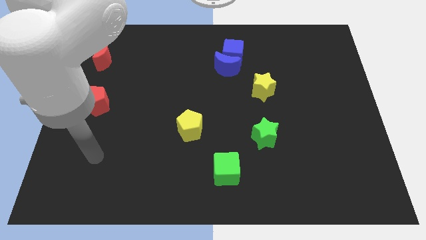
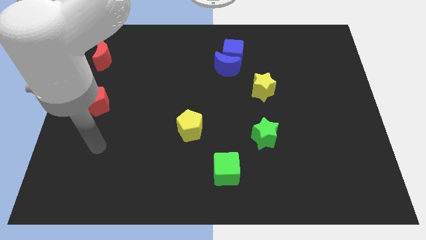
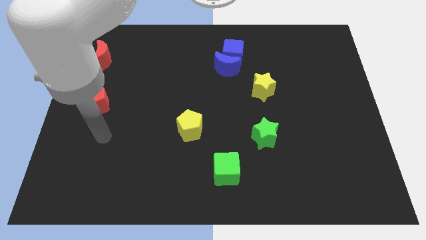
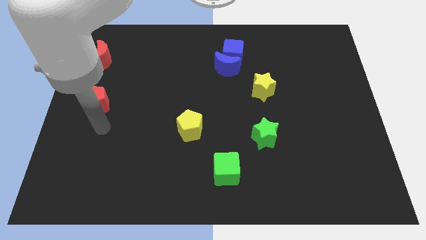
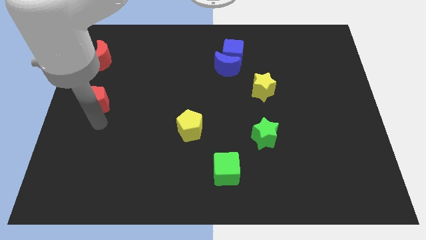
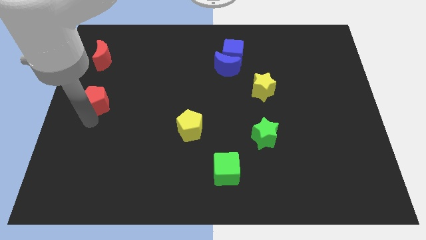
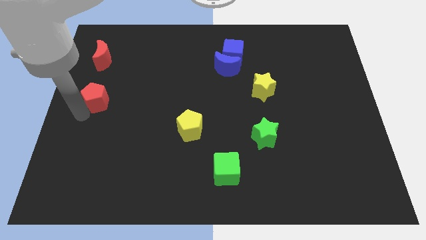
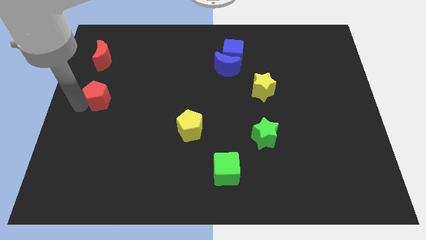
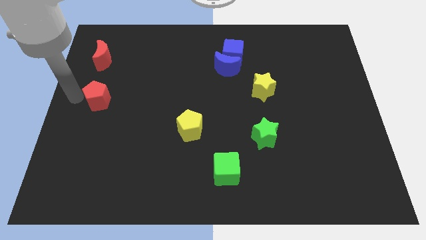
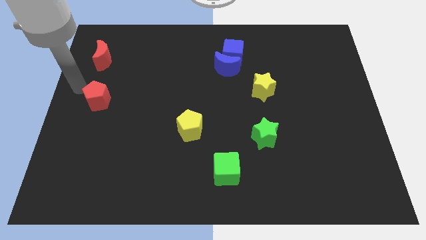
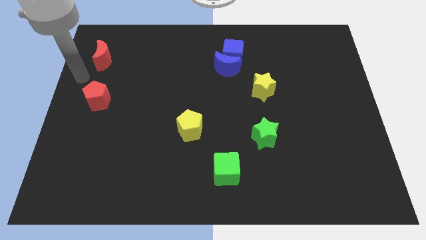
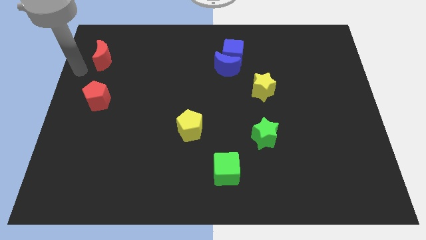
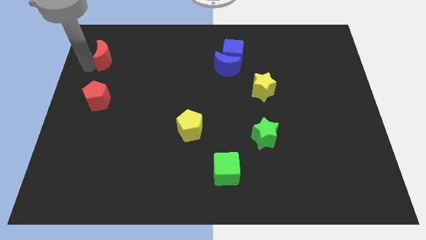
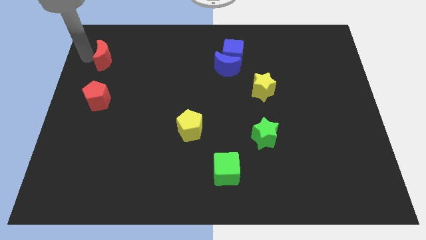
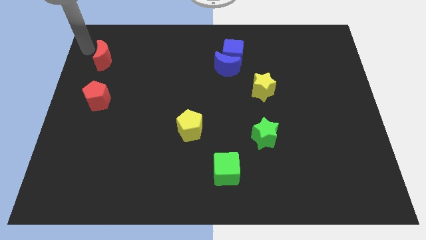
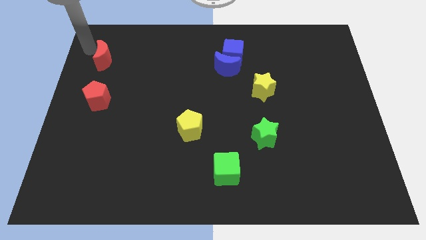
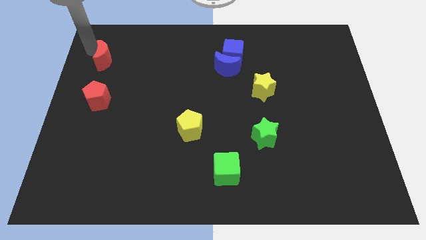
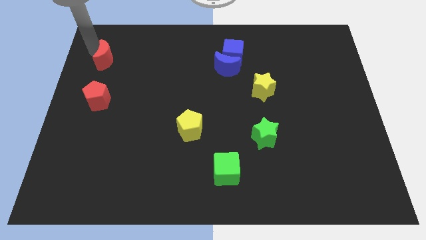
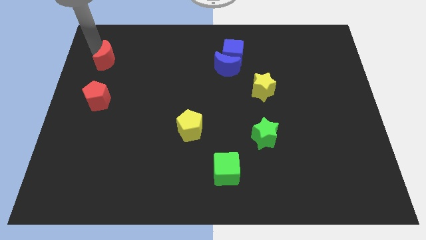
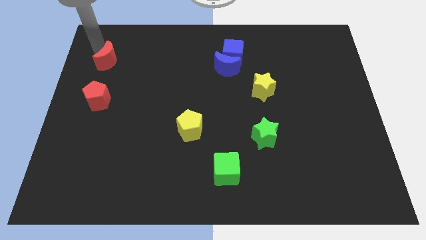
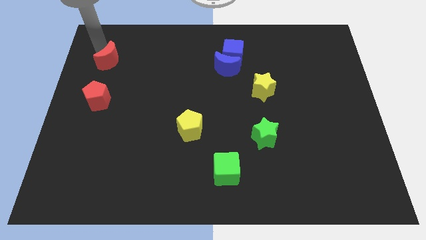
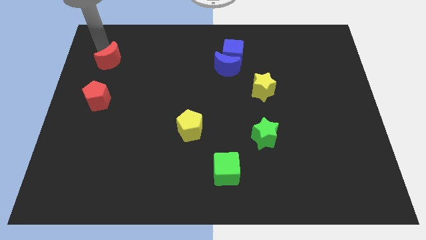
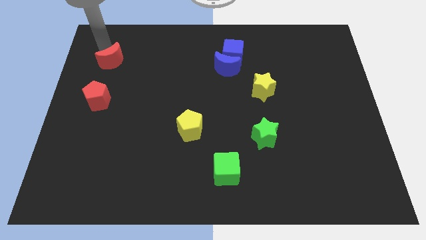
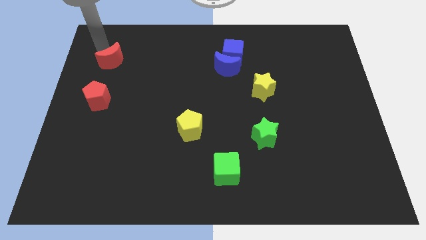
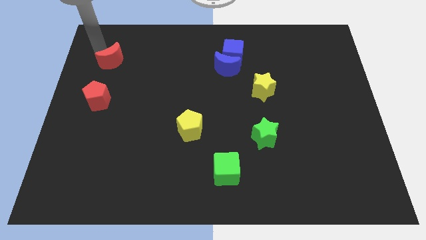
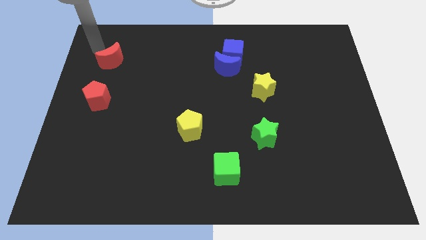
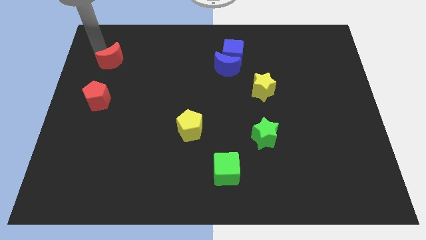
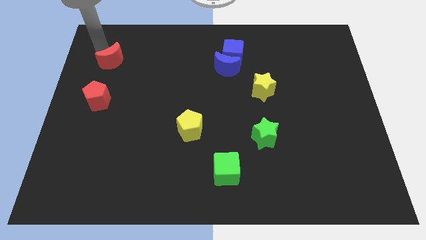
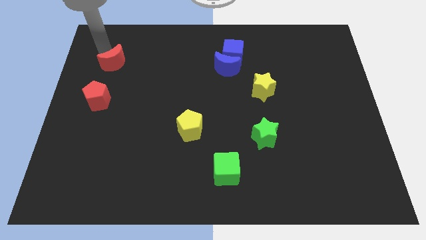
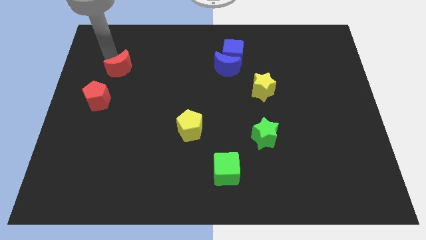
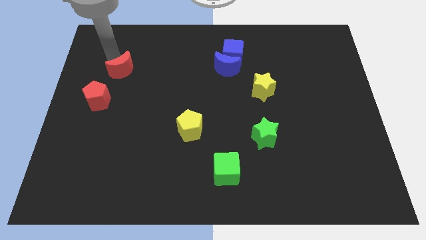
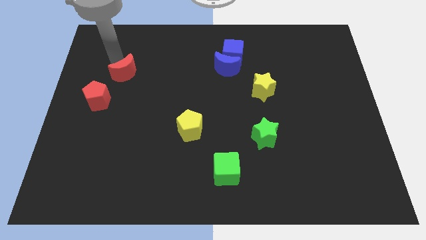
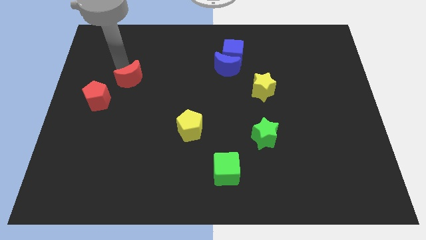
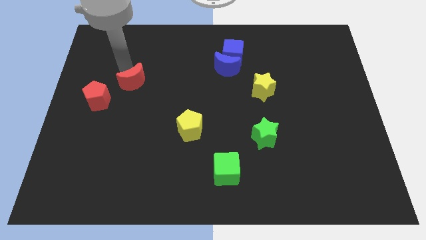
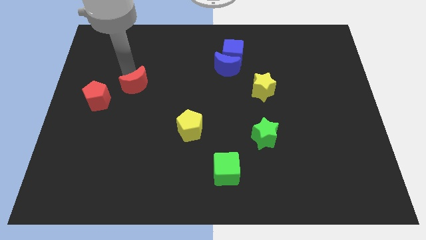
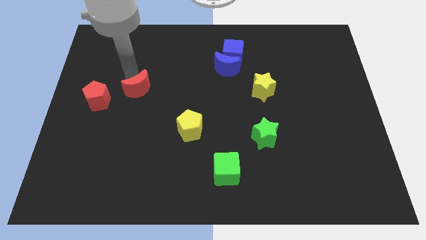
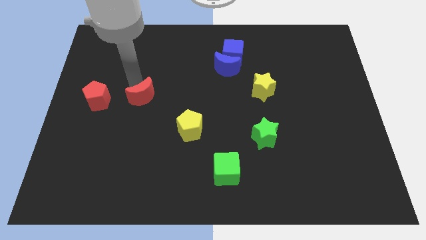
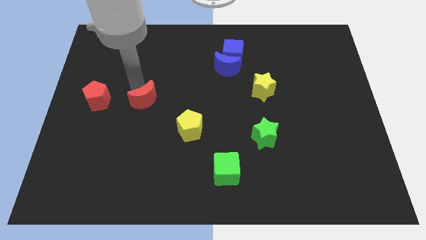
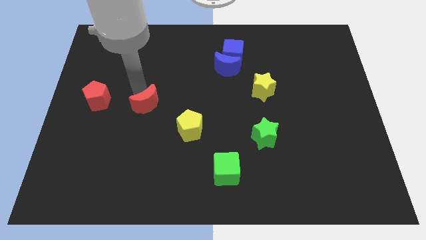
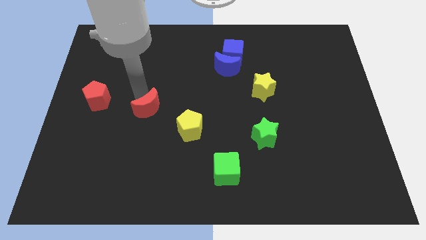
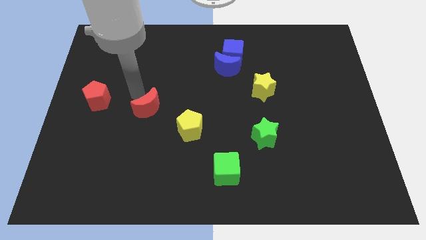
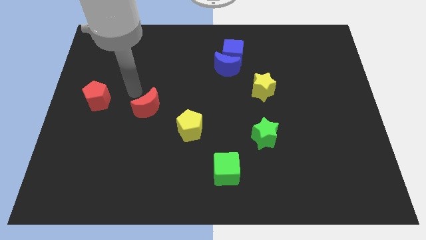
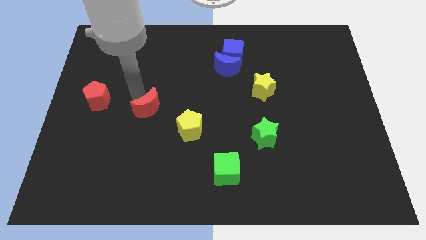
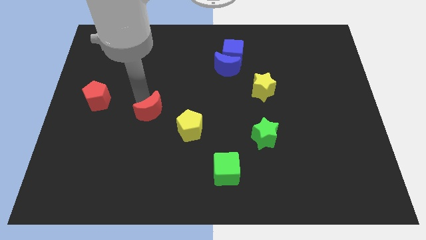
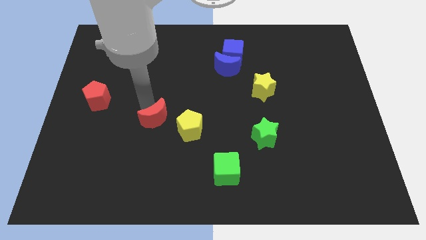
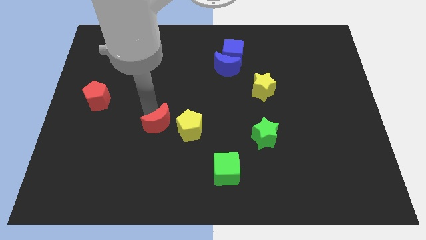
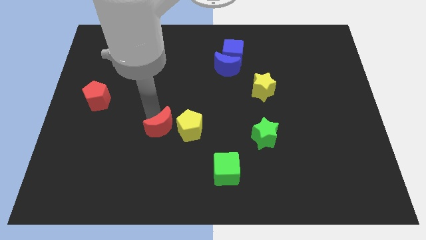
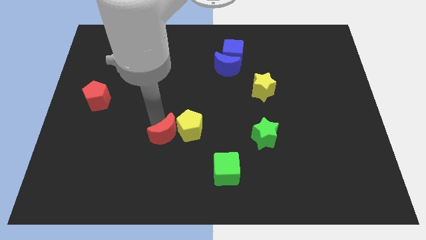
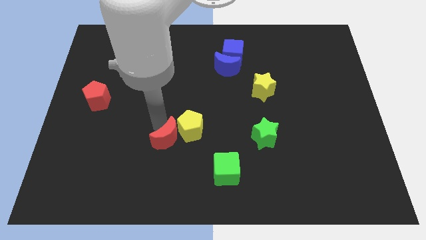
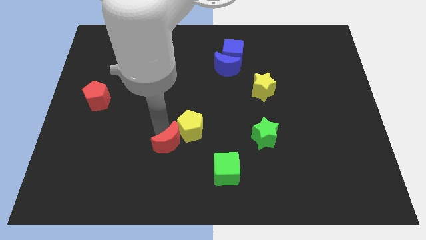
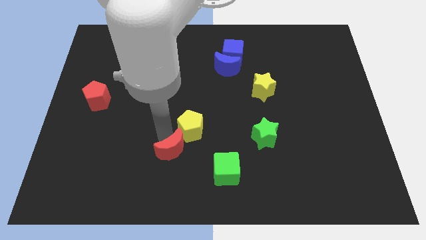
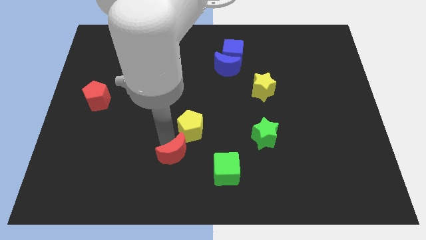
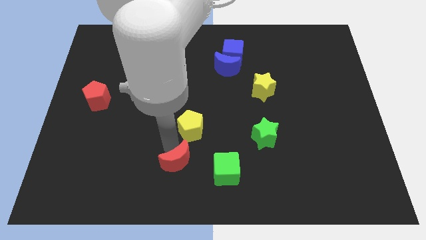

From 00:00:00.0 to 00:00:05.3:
move the red moon to the bottom side

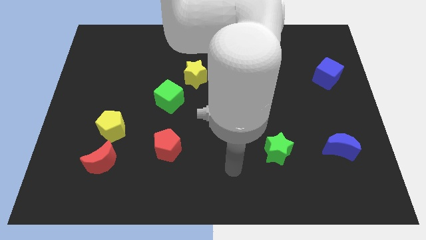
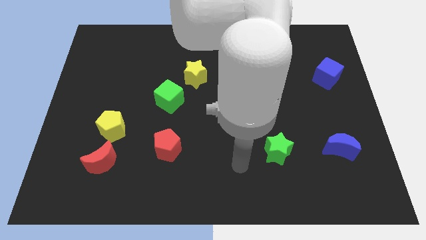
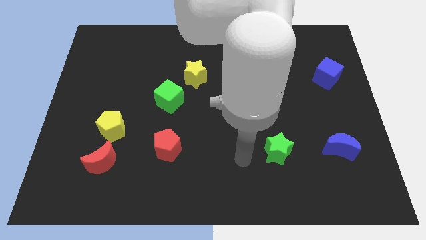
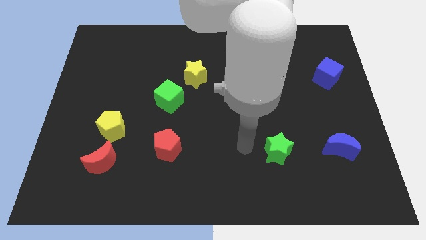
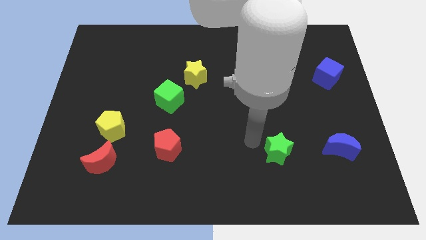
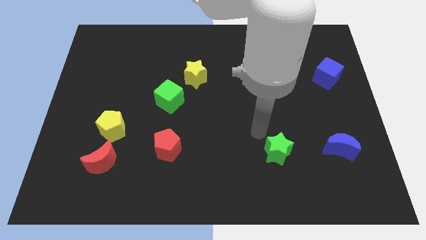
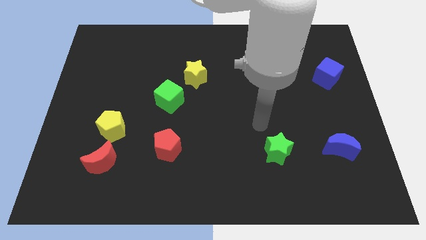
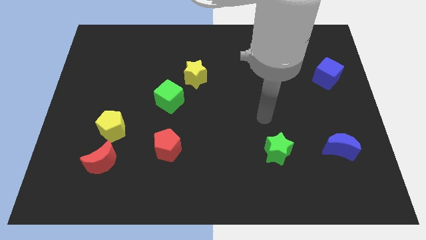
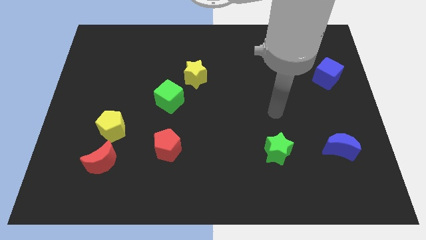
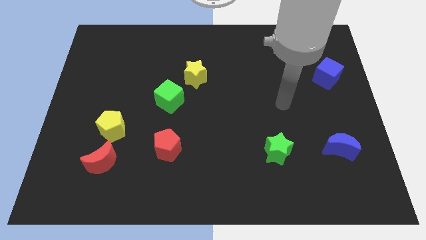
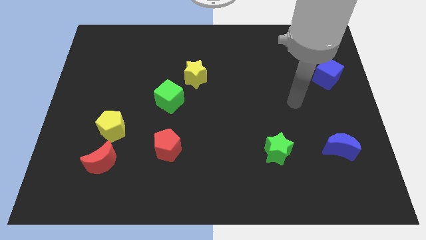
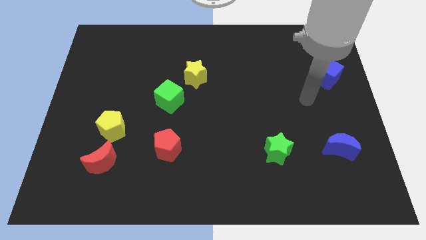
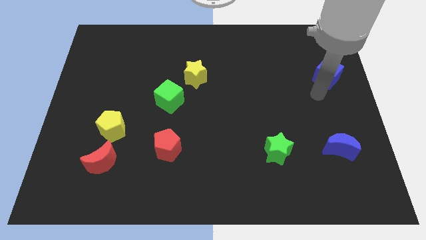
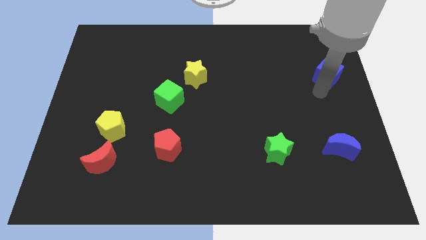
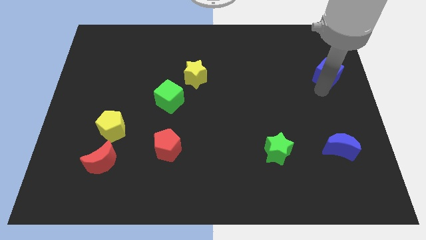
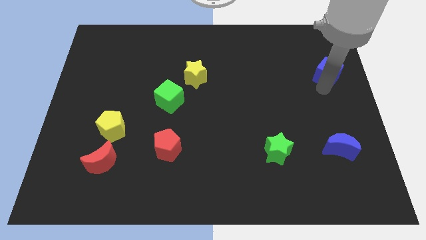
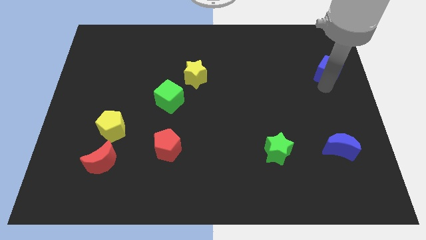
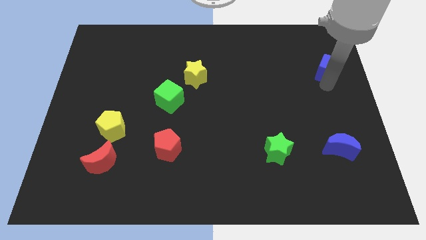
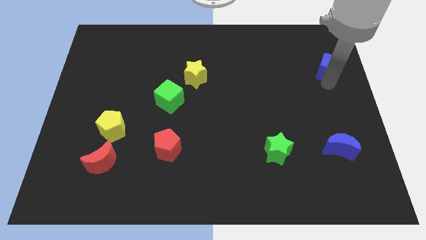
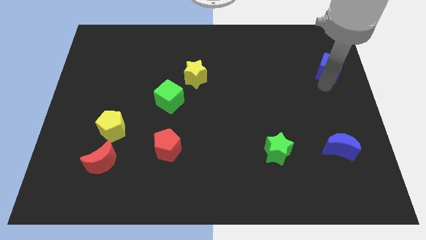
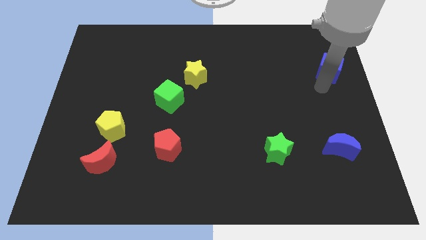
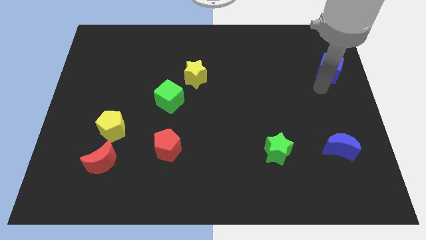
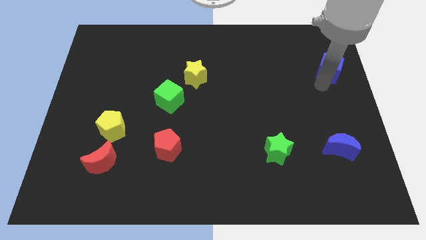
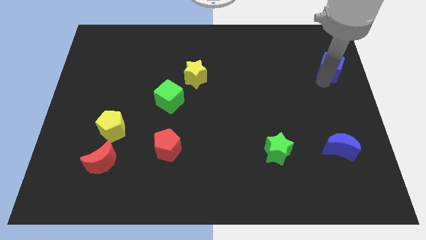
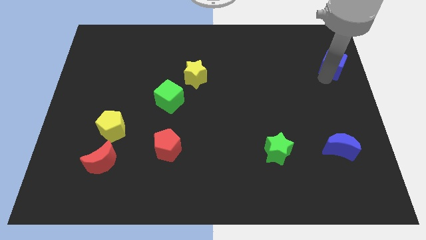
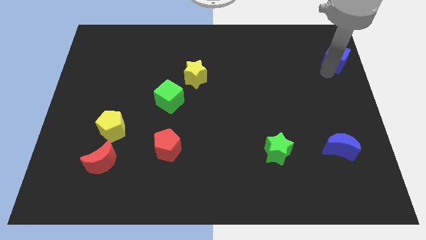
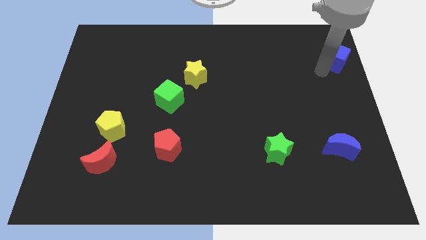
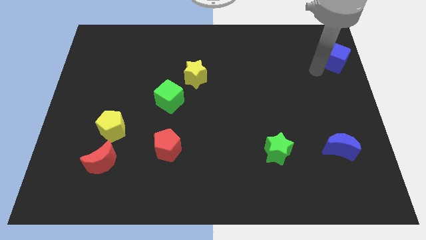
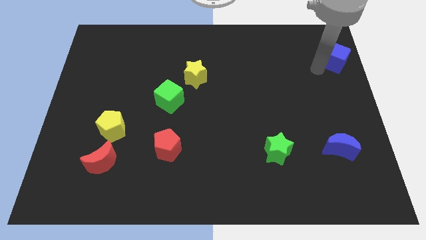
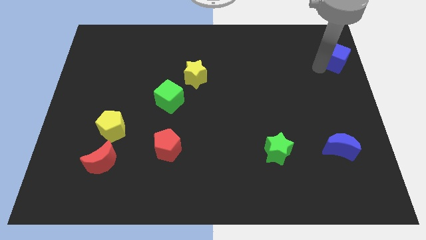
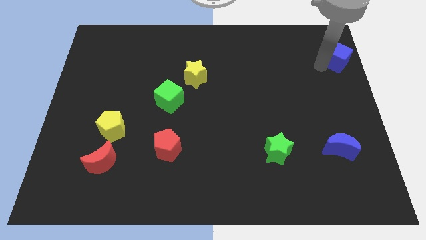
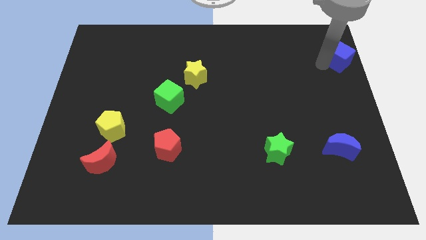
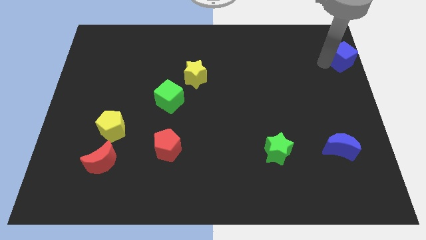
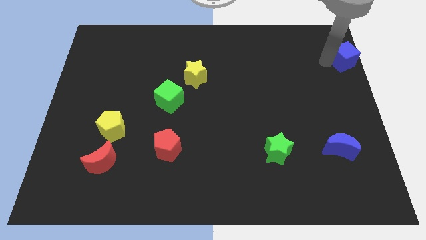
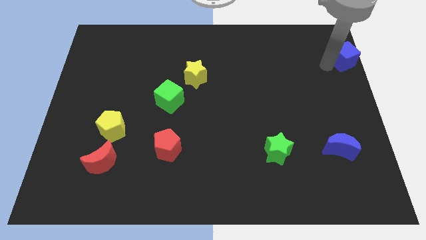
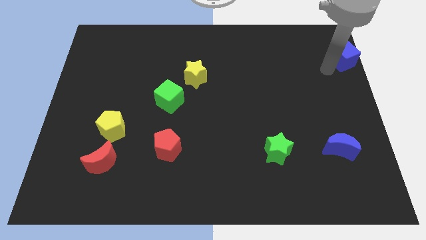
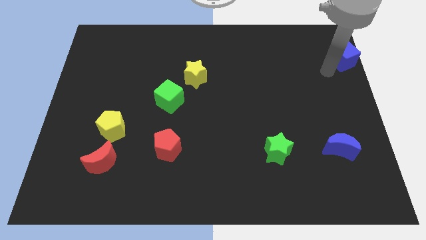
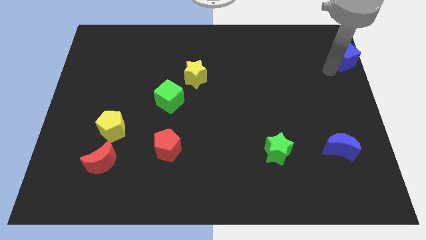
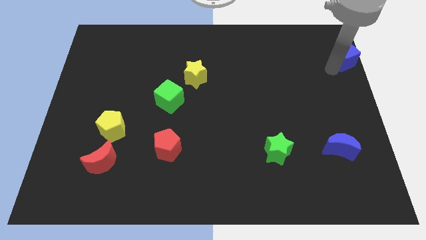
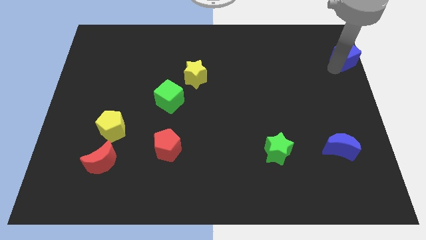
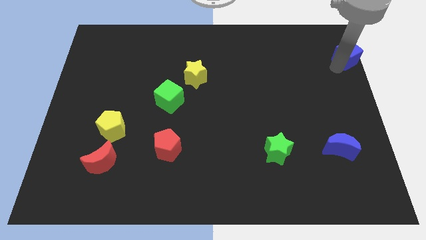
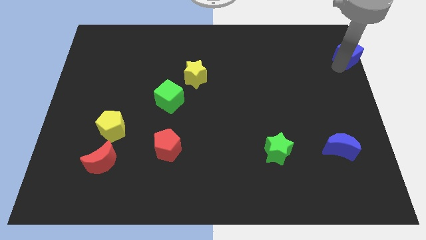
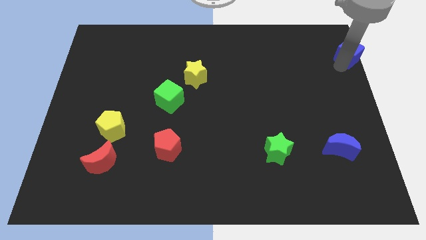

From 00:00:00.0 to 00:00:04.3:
move the blue cube to the top right corner
